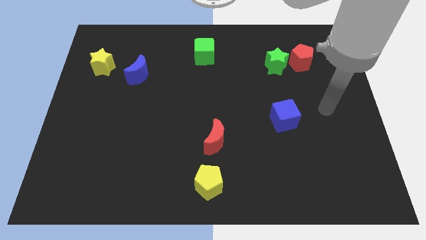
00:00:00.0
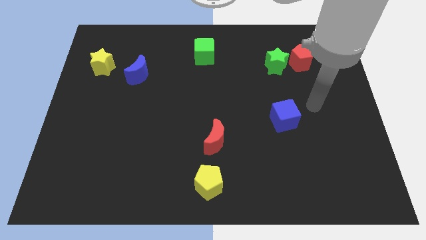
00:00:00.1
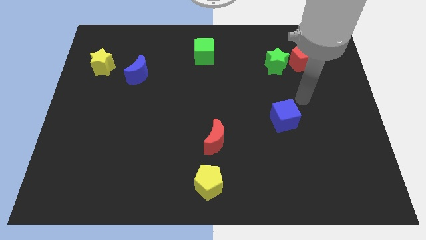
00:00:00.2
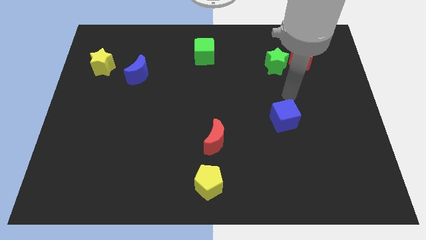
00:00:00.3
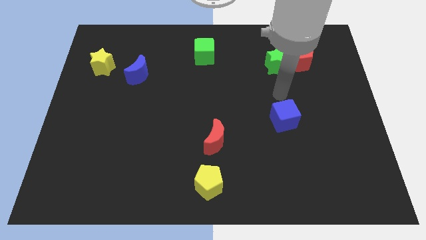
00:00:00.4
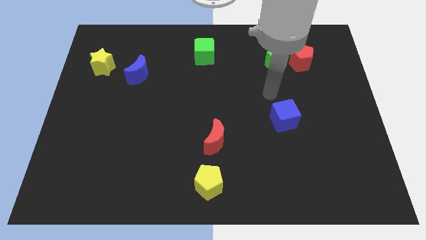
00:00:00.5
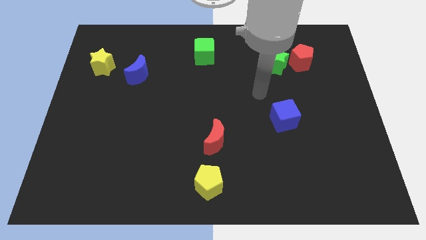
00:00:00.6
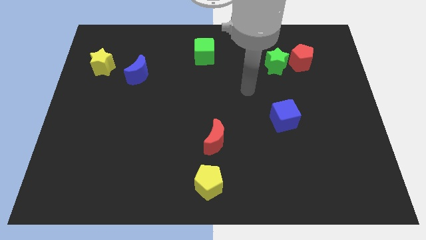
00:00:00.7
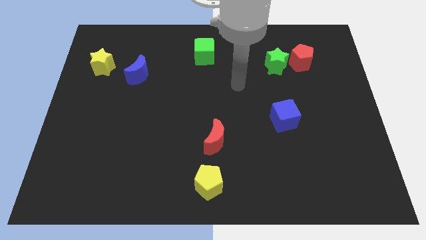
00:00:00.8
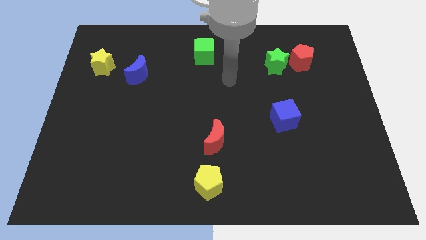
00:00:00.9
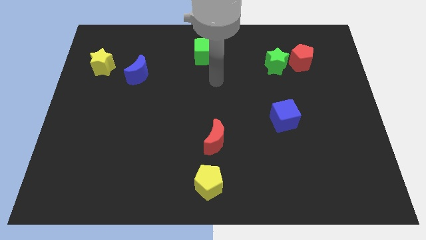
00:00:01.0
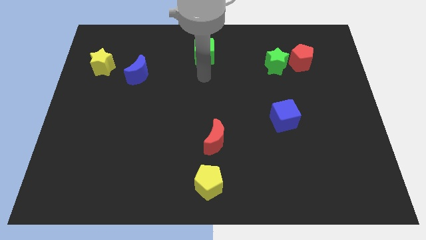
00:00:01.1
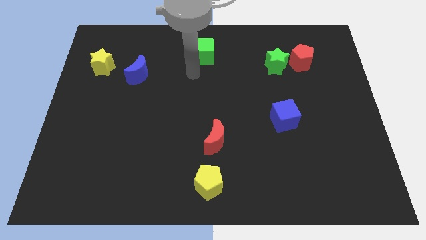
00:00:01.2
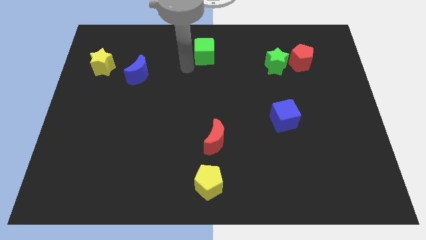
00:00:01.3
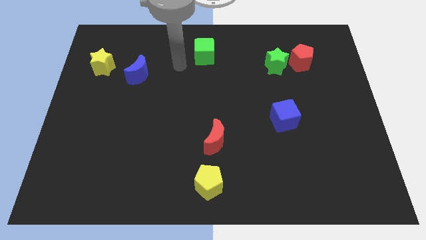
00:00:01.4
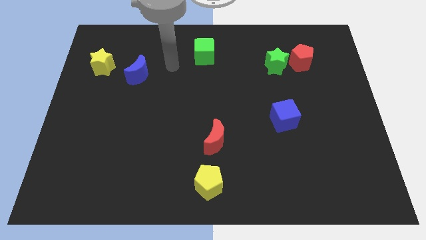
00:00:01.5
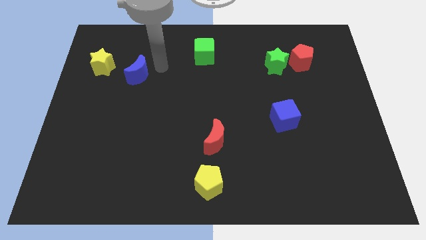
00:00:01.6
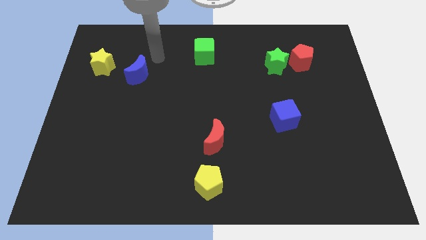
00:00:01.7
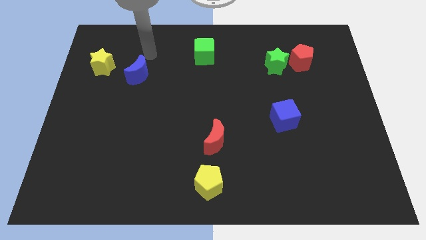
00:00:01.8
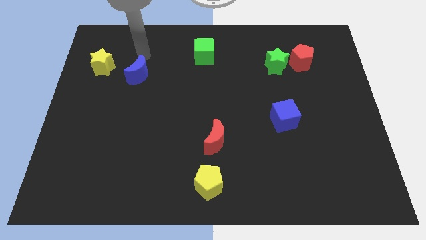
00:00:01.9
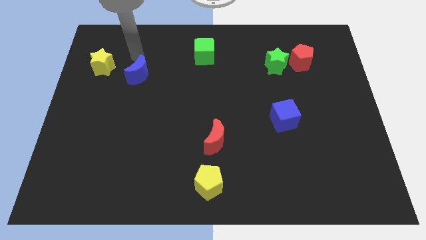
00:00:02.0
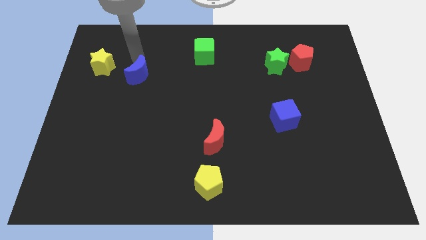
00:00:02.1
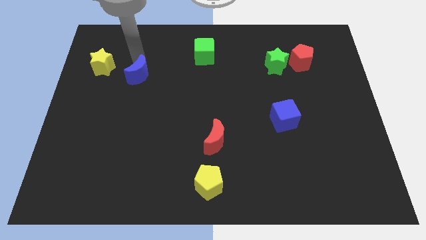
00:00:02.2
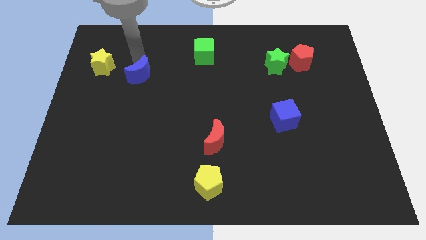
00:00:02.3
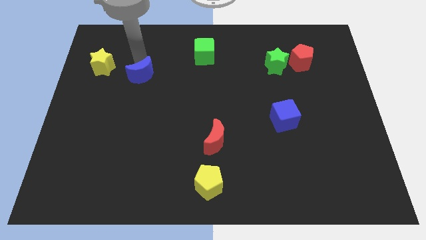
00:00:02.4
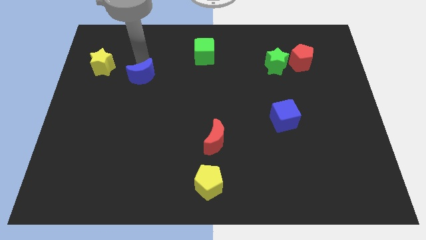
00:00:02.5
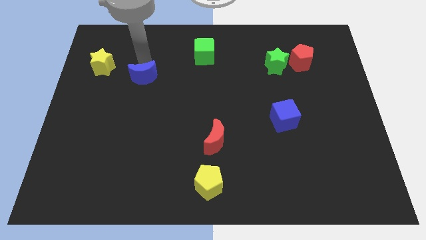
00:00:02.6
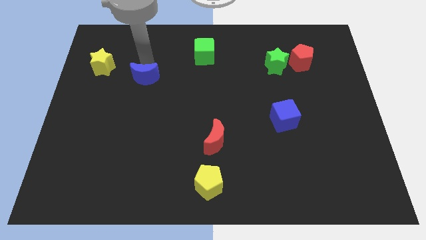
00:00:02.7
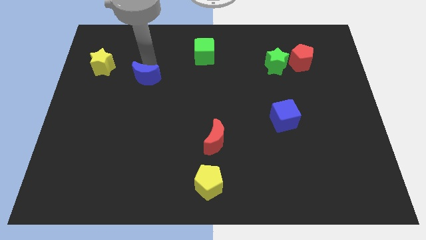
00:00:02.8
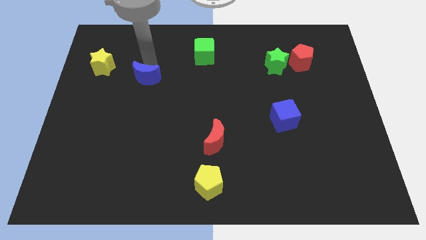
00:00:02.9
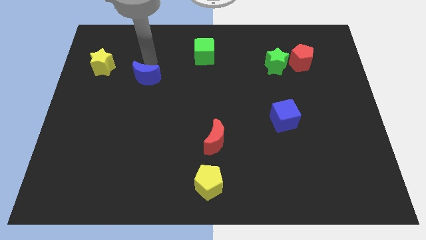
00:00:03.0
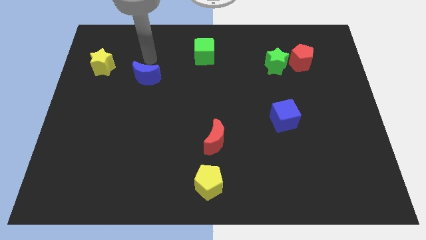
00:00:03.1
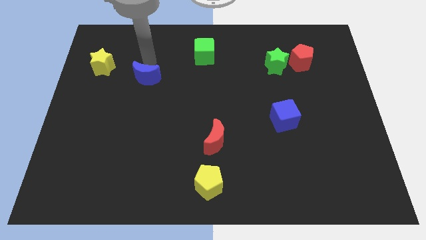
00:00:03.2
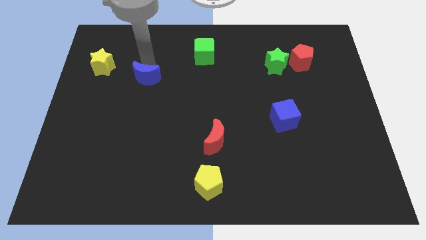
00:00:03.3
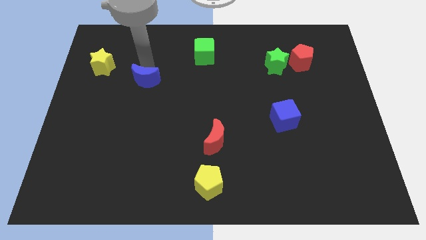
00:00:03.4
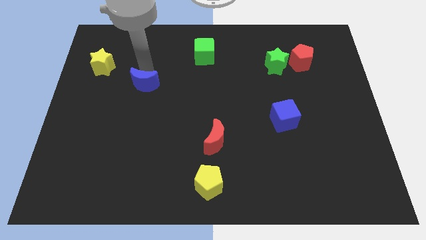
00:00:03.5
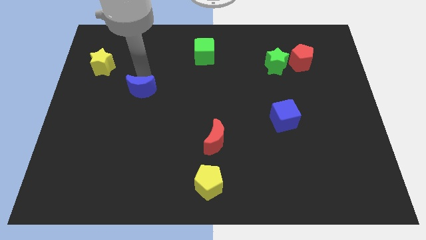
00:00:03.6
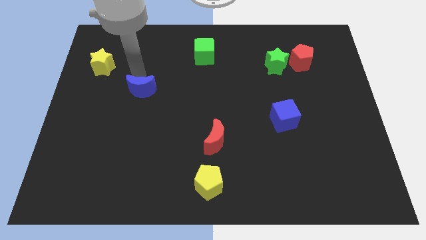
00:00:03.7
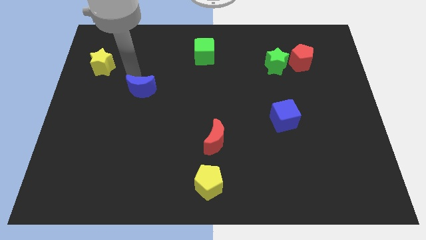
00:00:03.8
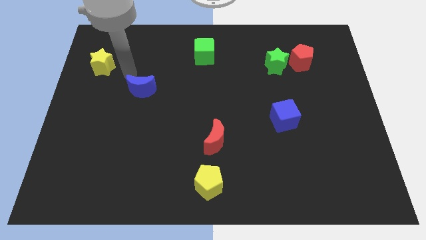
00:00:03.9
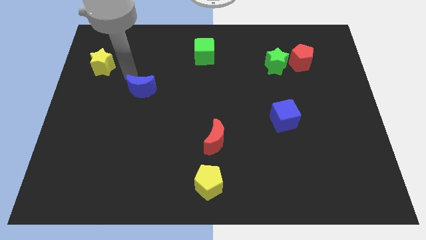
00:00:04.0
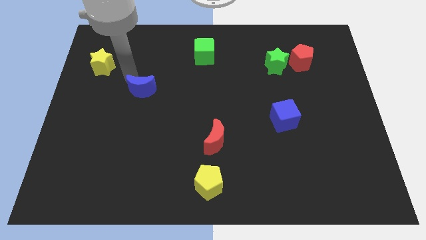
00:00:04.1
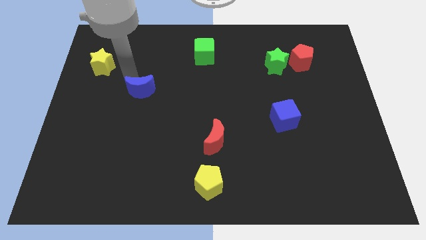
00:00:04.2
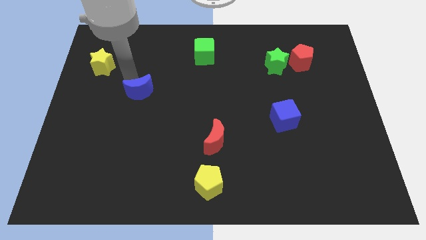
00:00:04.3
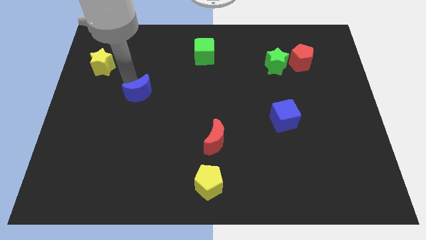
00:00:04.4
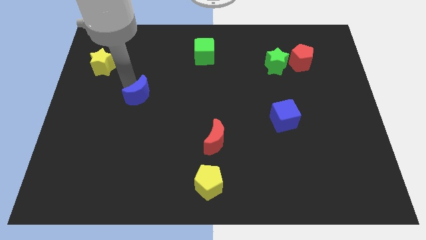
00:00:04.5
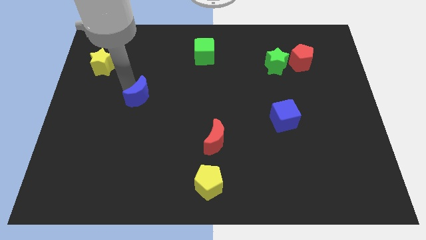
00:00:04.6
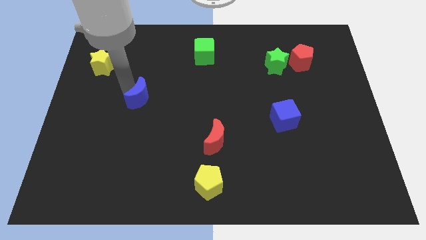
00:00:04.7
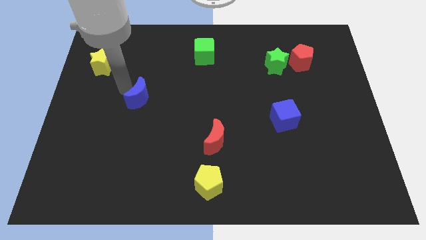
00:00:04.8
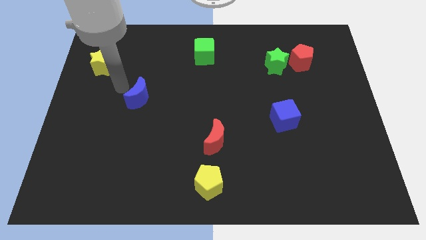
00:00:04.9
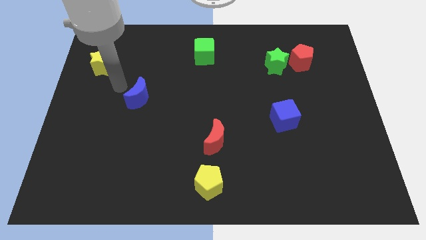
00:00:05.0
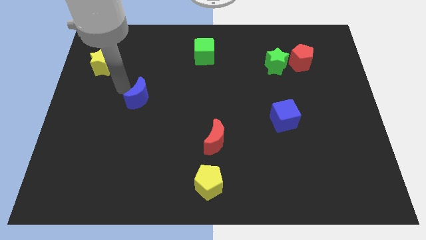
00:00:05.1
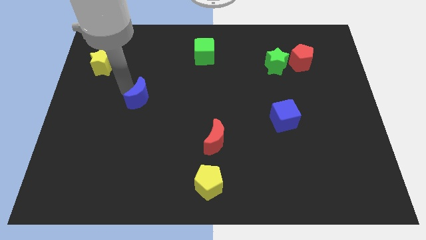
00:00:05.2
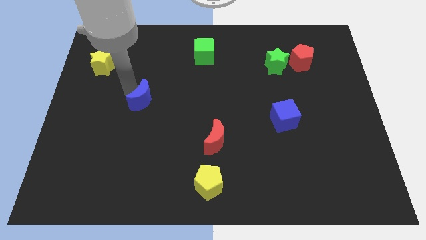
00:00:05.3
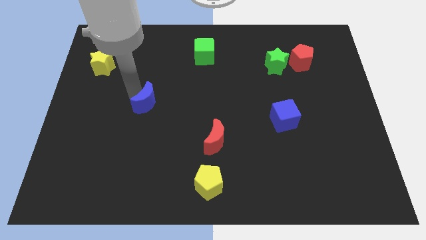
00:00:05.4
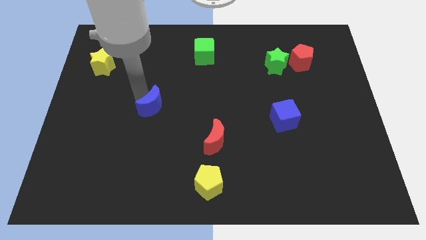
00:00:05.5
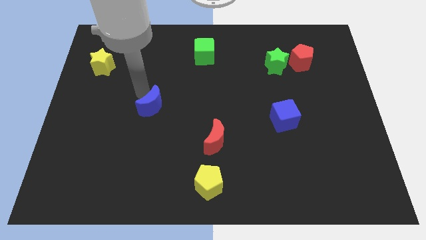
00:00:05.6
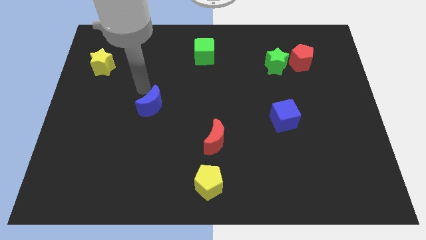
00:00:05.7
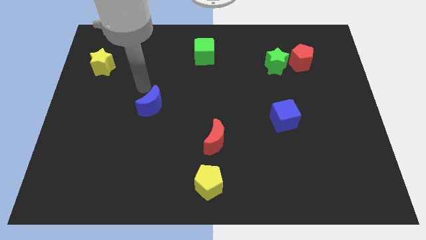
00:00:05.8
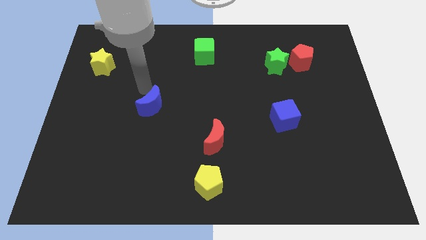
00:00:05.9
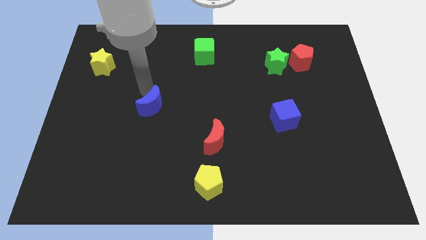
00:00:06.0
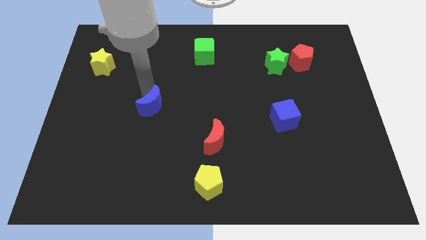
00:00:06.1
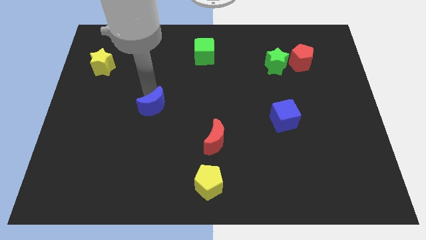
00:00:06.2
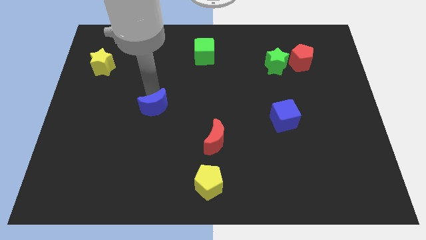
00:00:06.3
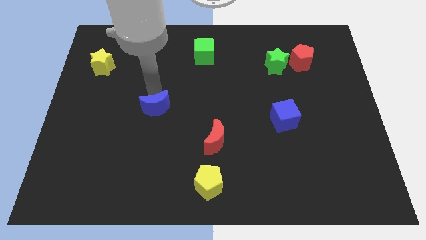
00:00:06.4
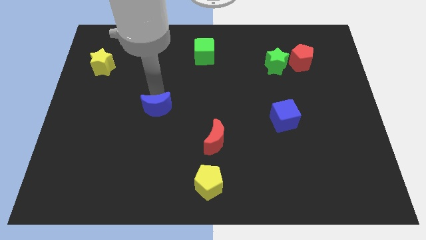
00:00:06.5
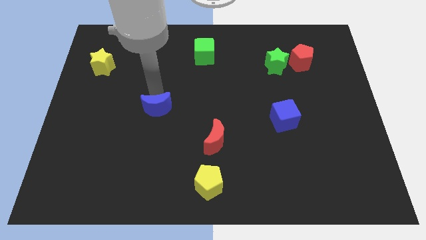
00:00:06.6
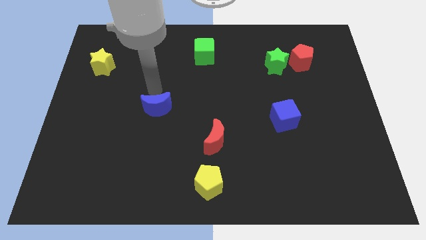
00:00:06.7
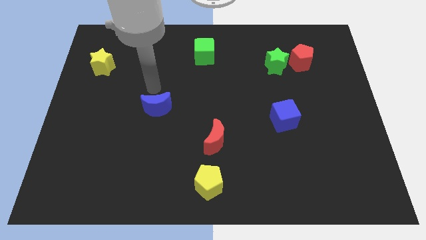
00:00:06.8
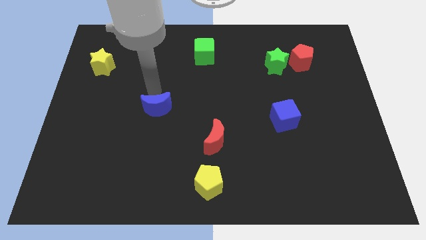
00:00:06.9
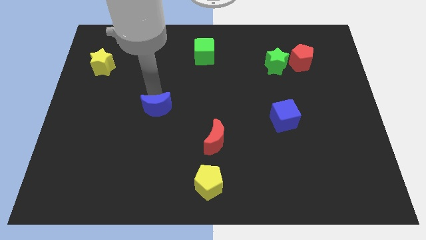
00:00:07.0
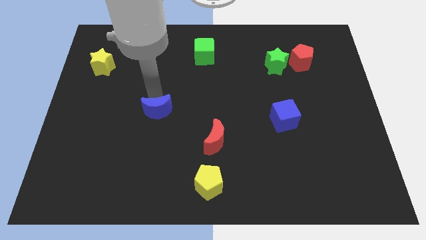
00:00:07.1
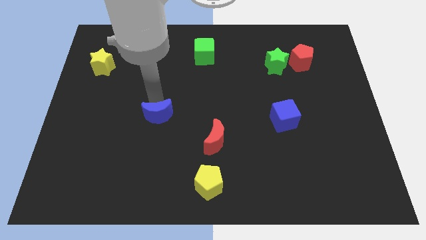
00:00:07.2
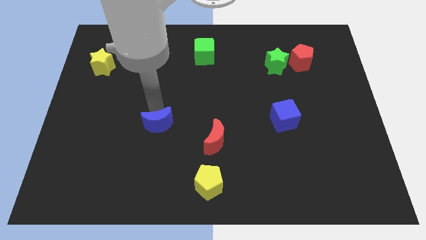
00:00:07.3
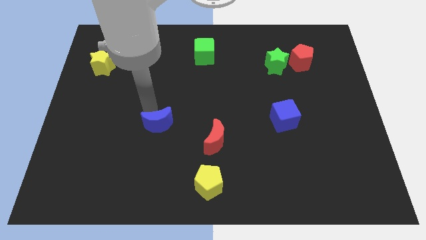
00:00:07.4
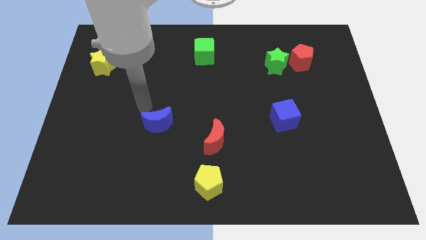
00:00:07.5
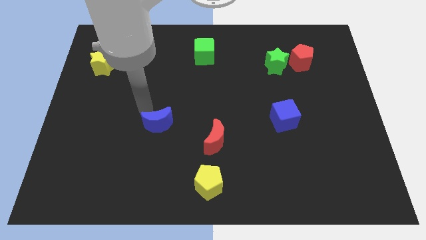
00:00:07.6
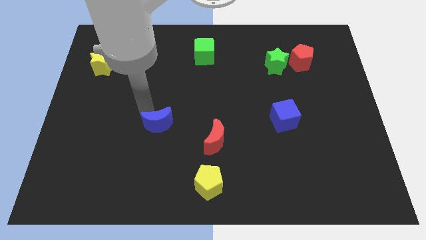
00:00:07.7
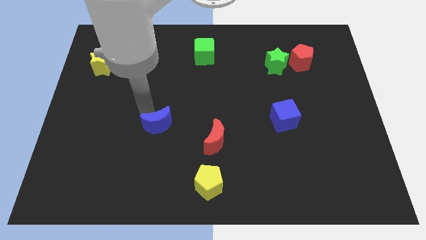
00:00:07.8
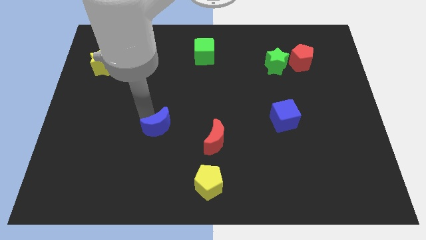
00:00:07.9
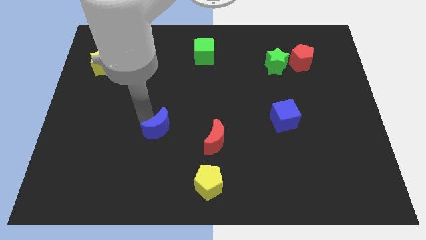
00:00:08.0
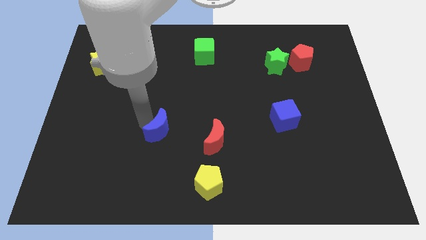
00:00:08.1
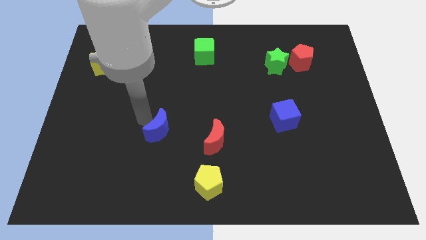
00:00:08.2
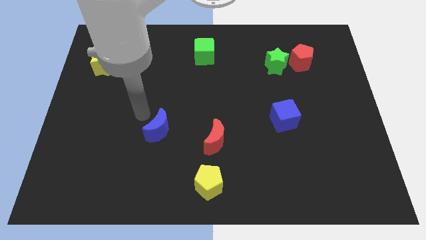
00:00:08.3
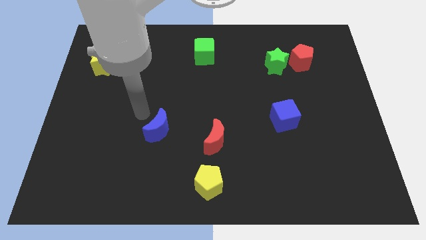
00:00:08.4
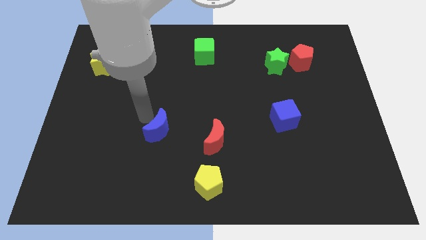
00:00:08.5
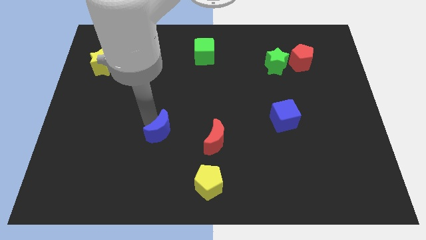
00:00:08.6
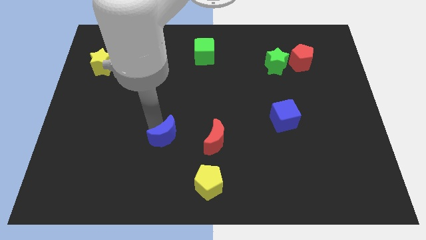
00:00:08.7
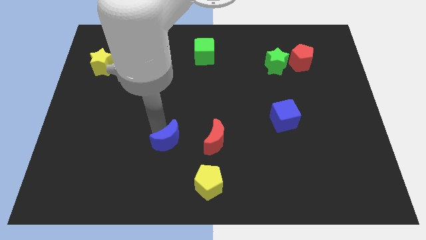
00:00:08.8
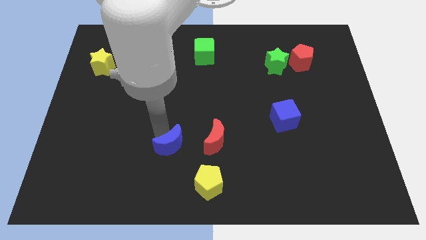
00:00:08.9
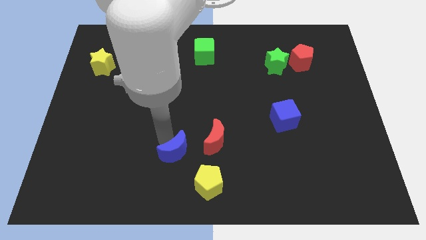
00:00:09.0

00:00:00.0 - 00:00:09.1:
slide the blue moon diagonally down and to the left of the red moon
